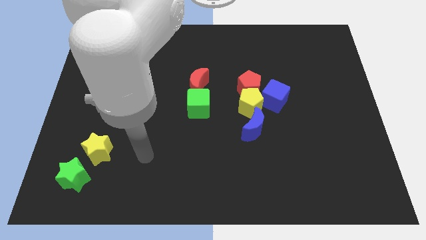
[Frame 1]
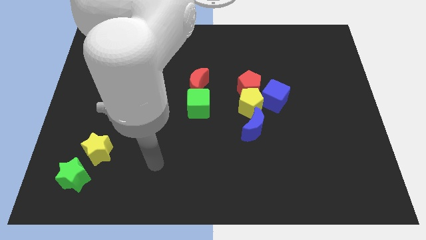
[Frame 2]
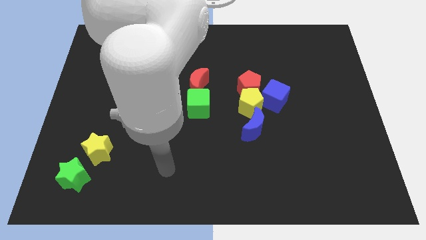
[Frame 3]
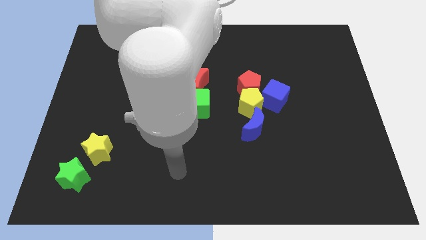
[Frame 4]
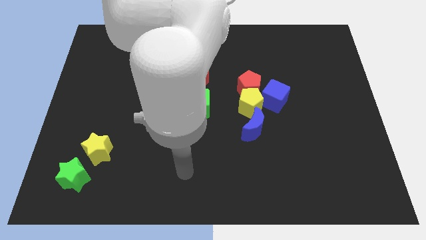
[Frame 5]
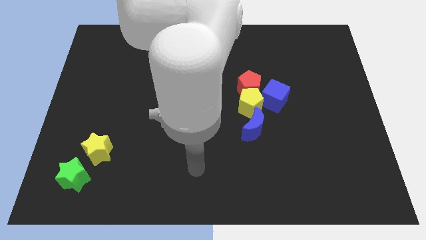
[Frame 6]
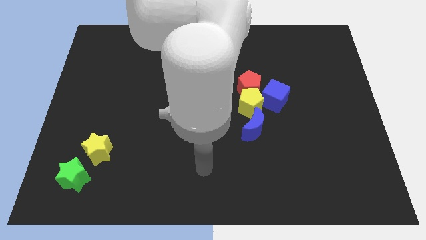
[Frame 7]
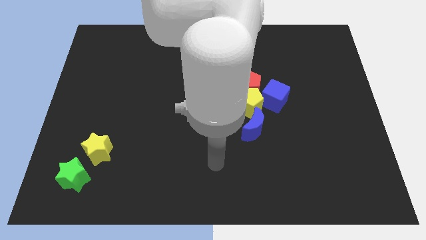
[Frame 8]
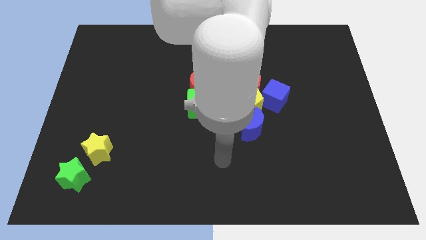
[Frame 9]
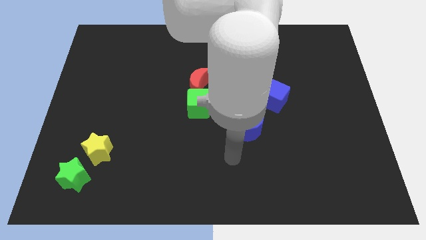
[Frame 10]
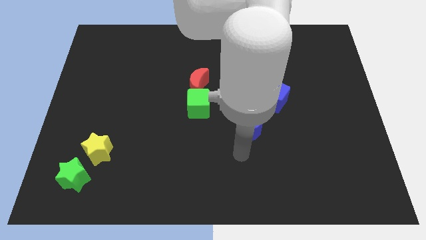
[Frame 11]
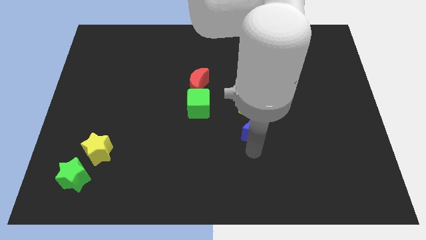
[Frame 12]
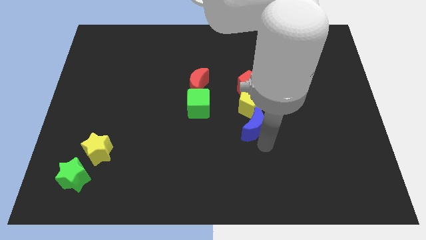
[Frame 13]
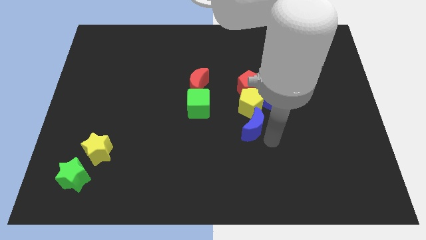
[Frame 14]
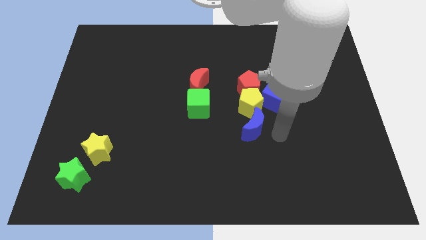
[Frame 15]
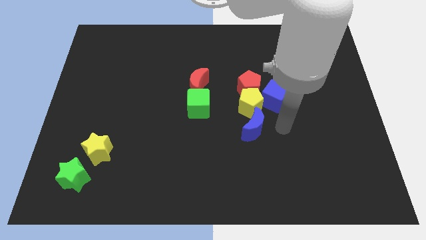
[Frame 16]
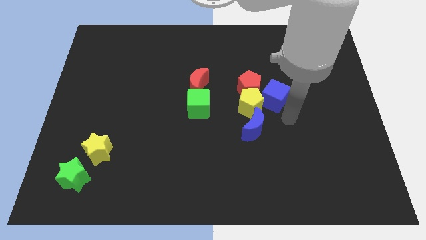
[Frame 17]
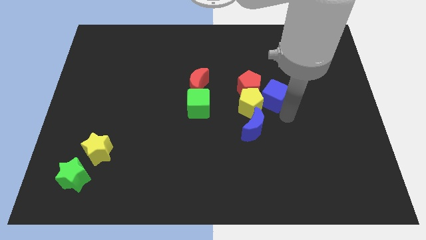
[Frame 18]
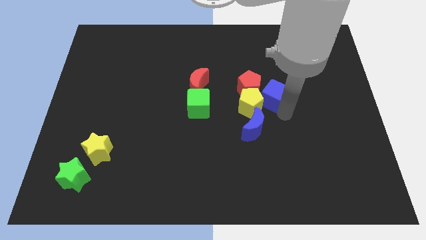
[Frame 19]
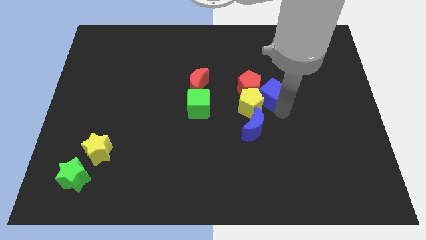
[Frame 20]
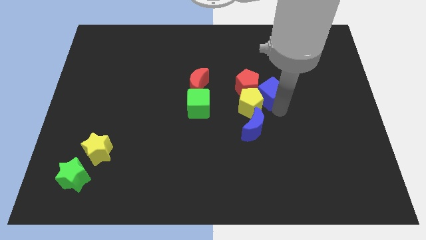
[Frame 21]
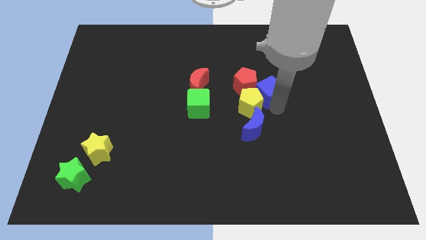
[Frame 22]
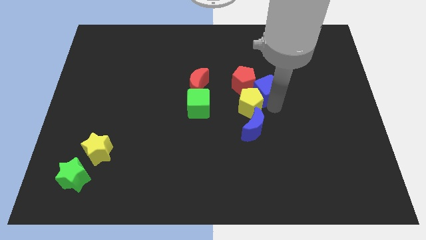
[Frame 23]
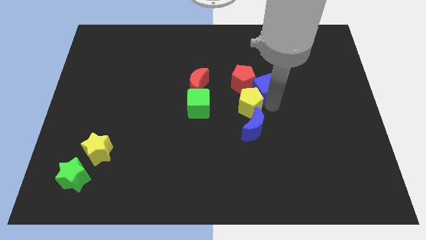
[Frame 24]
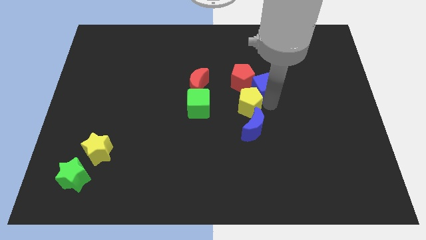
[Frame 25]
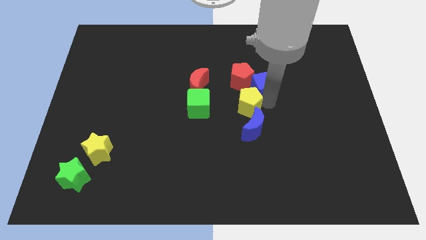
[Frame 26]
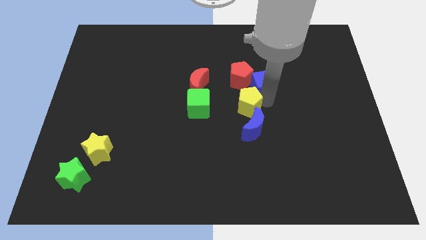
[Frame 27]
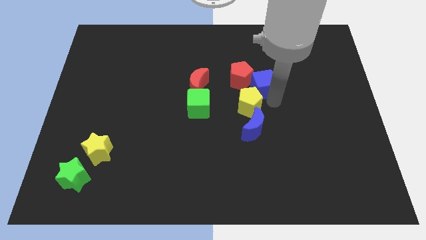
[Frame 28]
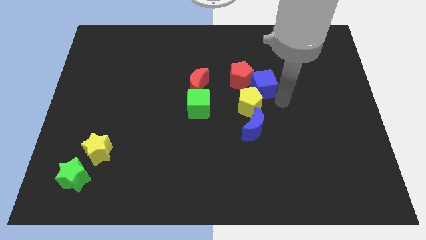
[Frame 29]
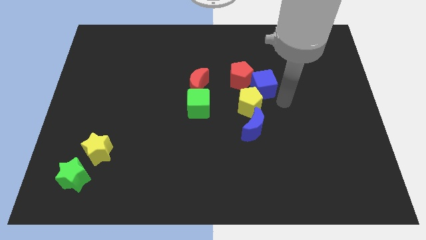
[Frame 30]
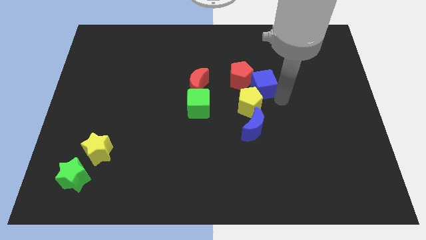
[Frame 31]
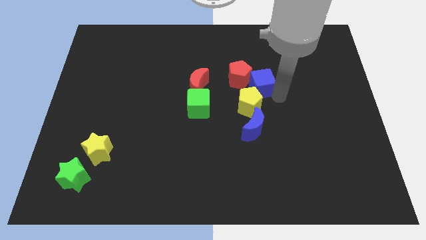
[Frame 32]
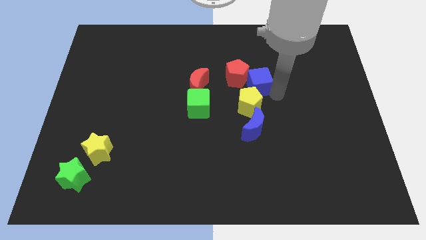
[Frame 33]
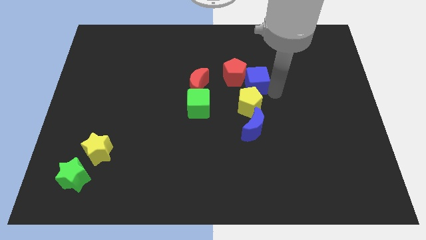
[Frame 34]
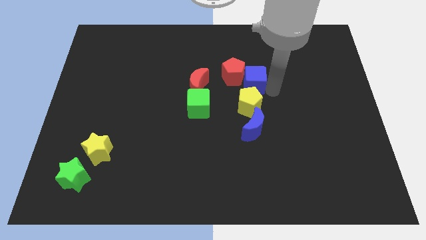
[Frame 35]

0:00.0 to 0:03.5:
slightly slide the blue cube upwards and then to the left

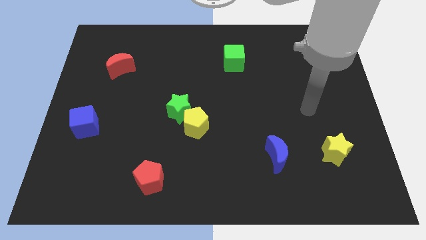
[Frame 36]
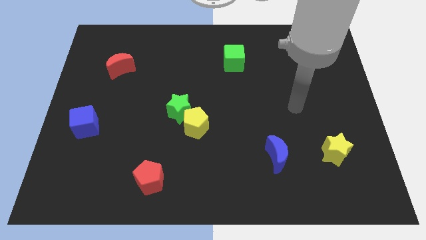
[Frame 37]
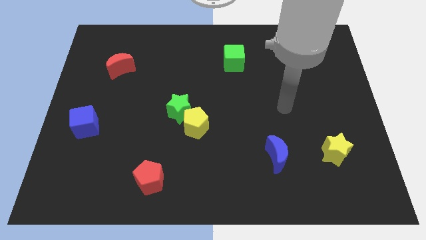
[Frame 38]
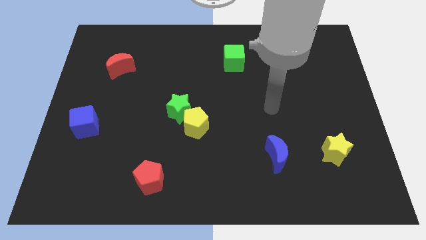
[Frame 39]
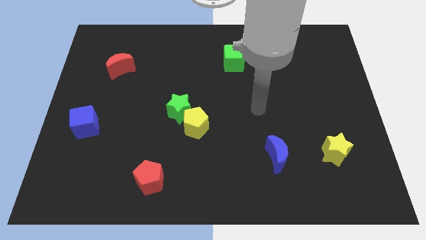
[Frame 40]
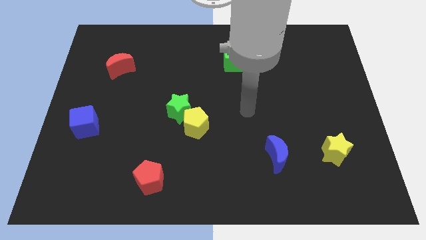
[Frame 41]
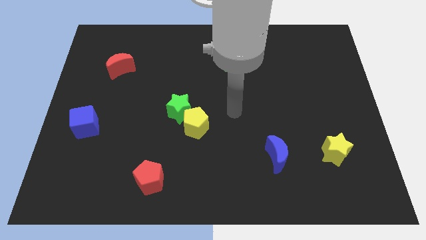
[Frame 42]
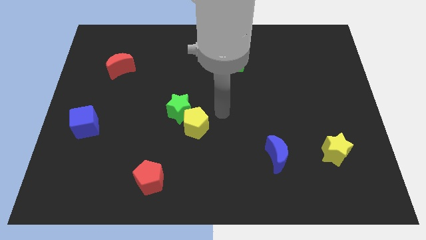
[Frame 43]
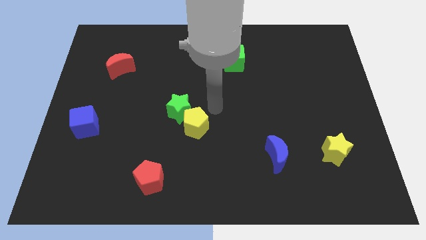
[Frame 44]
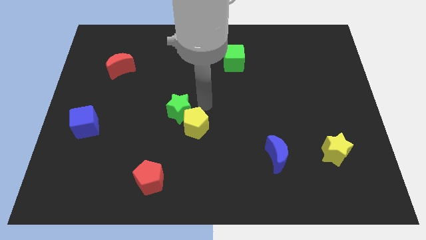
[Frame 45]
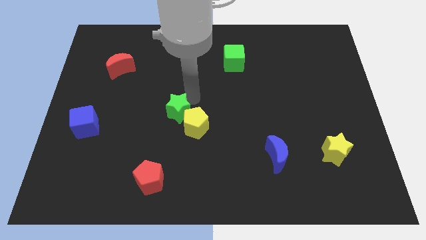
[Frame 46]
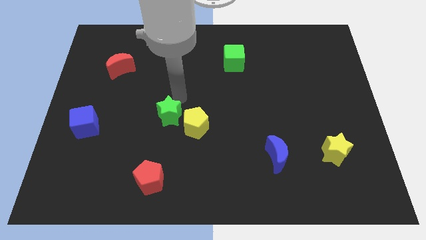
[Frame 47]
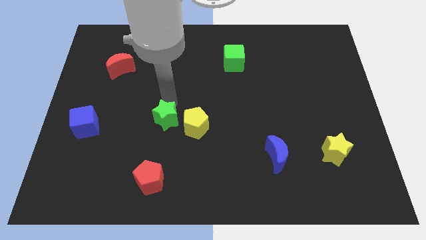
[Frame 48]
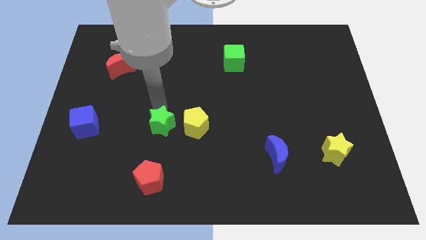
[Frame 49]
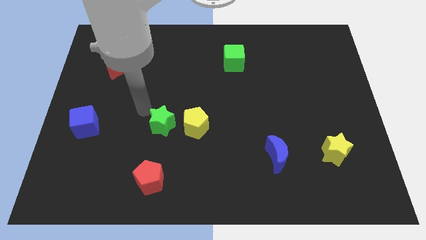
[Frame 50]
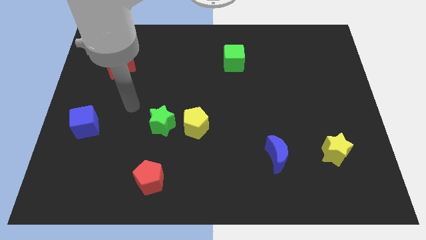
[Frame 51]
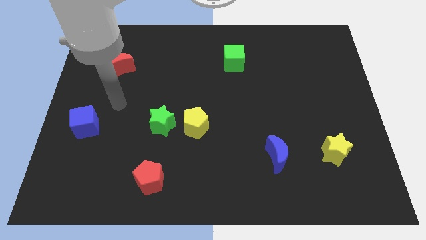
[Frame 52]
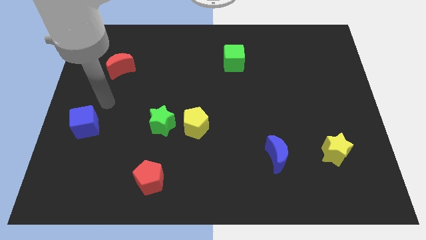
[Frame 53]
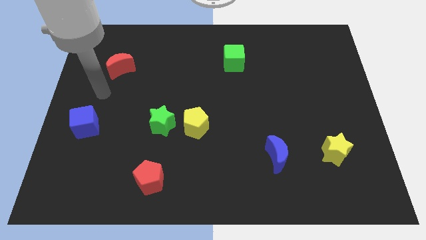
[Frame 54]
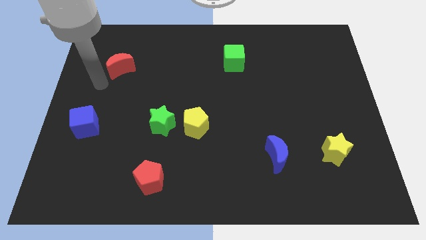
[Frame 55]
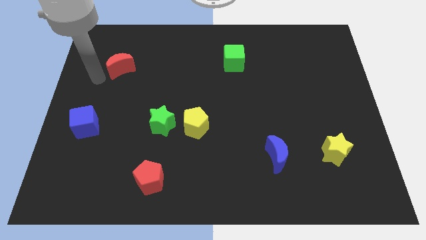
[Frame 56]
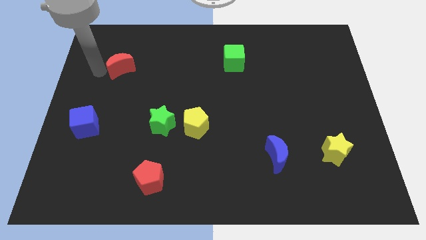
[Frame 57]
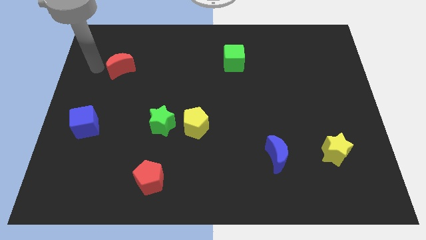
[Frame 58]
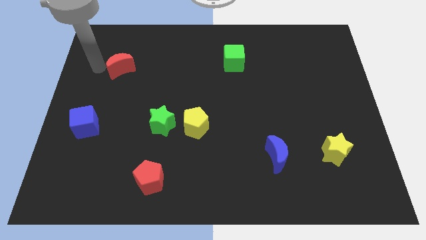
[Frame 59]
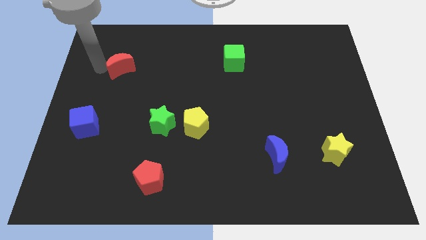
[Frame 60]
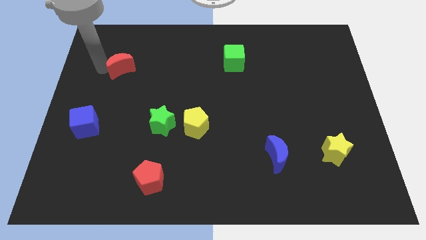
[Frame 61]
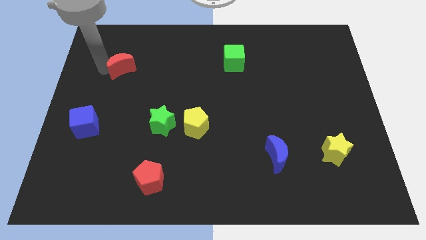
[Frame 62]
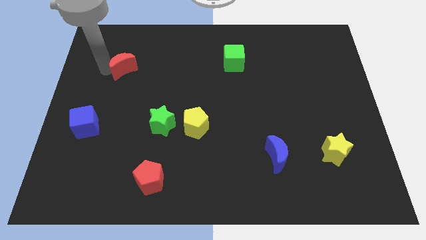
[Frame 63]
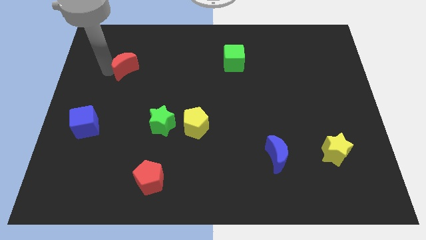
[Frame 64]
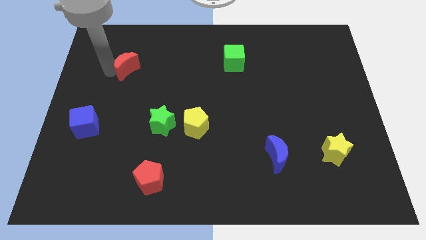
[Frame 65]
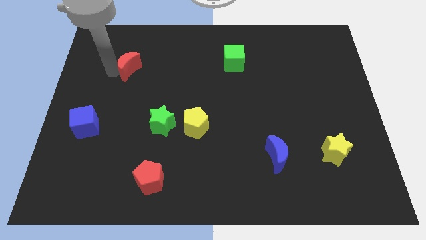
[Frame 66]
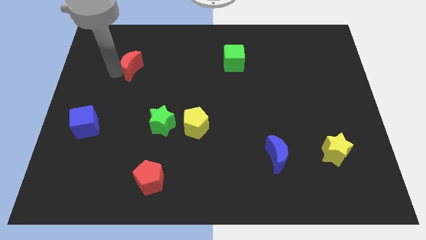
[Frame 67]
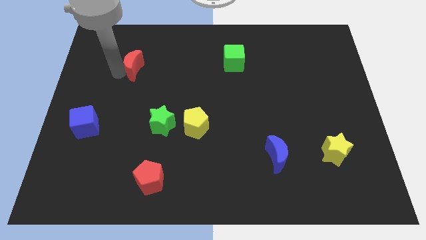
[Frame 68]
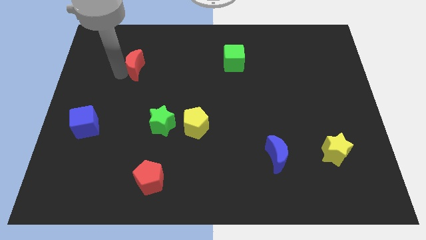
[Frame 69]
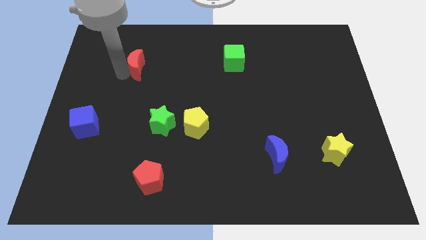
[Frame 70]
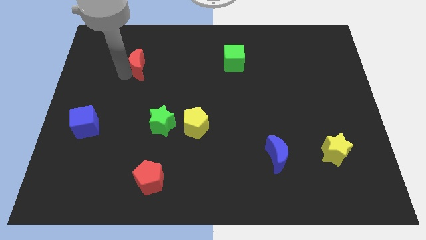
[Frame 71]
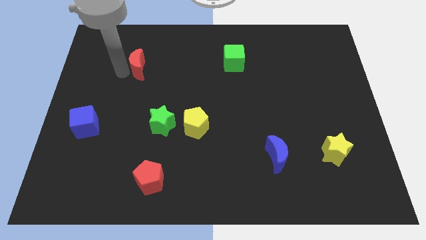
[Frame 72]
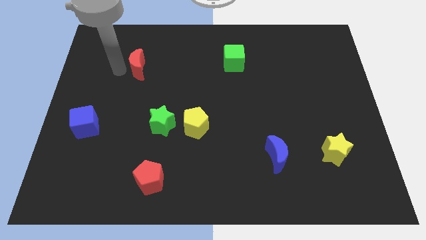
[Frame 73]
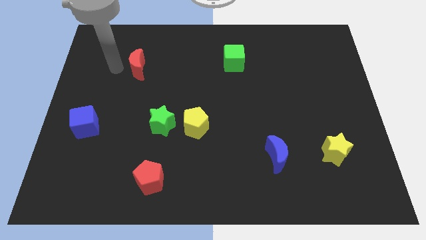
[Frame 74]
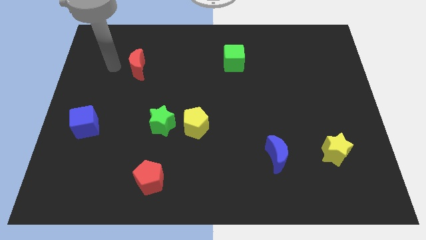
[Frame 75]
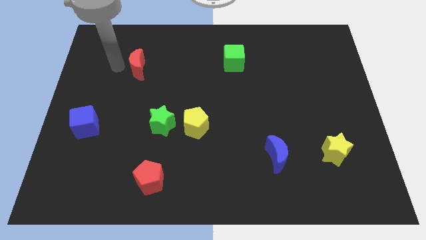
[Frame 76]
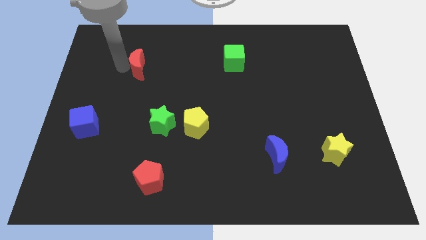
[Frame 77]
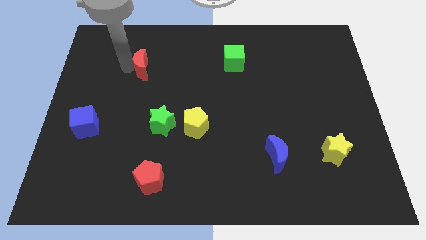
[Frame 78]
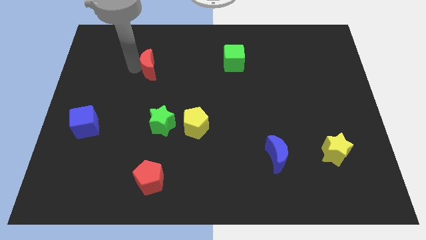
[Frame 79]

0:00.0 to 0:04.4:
slide the red moon a bit to the right
